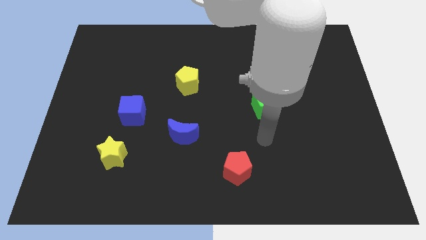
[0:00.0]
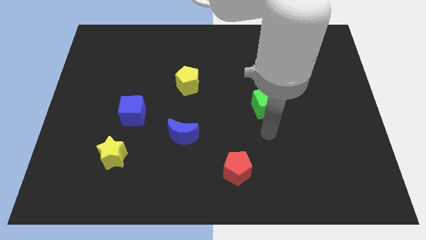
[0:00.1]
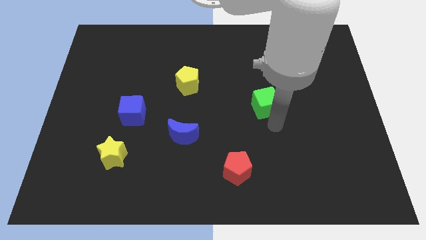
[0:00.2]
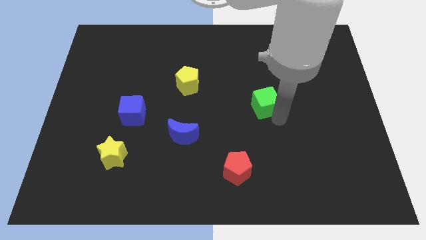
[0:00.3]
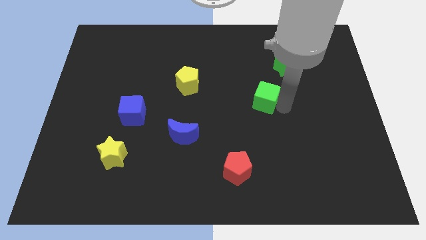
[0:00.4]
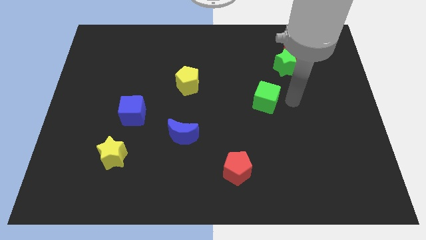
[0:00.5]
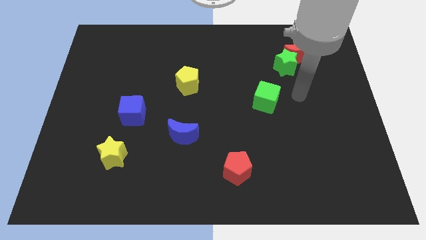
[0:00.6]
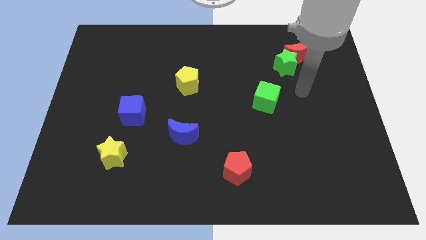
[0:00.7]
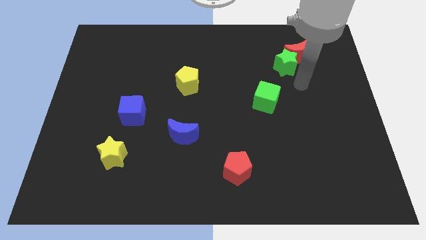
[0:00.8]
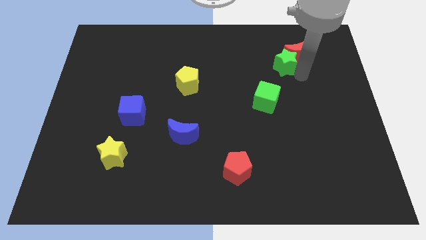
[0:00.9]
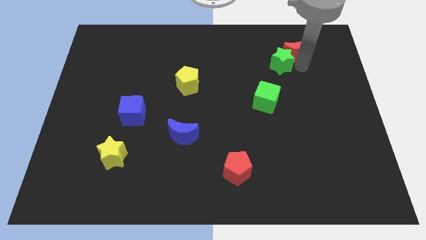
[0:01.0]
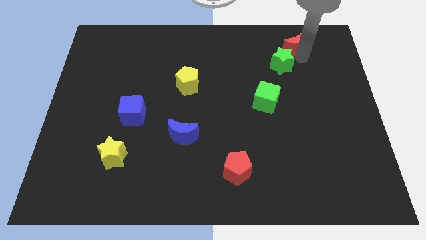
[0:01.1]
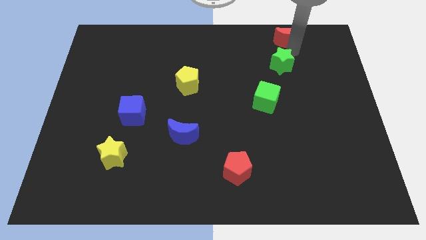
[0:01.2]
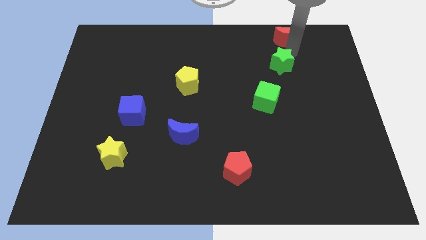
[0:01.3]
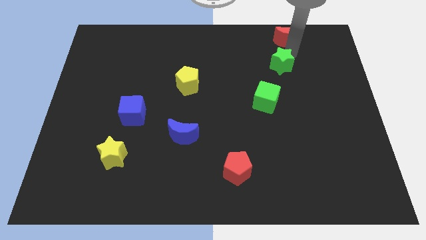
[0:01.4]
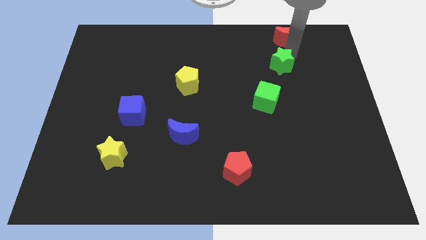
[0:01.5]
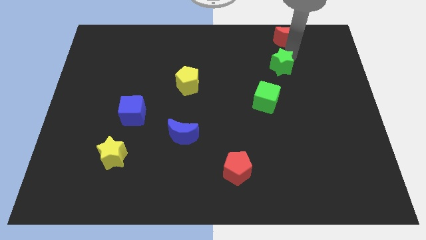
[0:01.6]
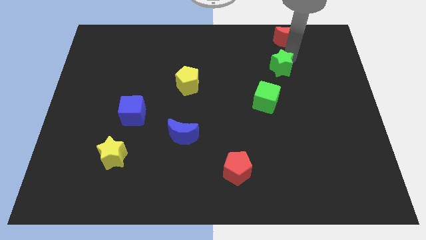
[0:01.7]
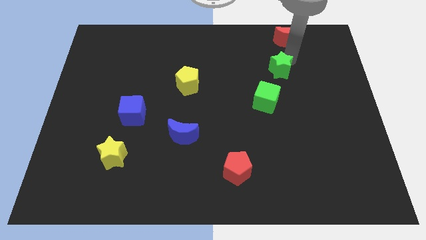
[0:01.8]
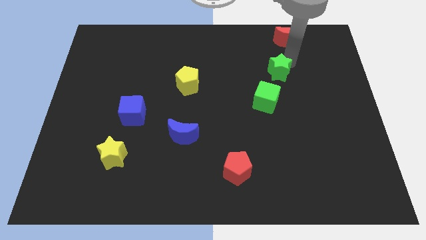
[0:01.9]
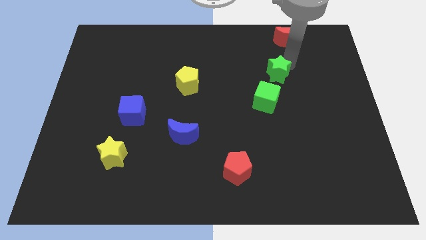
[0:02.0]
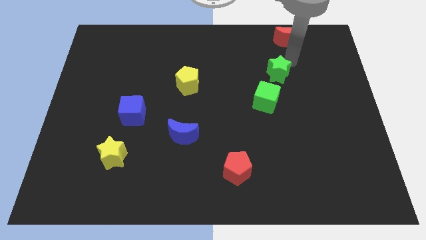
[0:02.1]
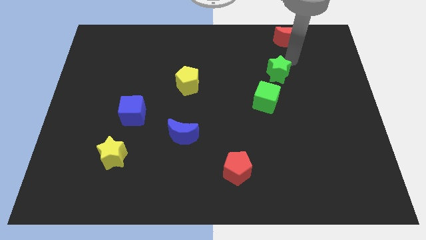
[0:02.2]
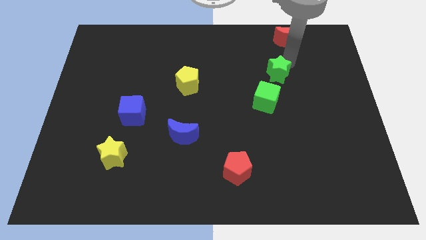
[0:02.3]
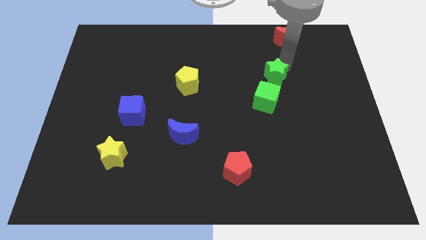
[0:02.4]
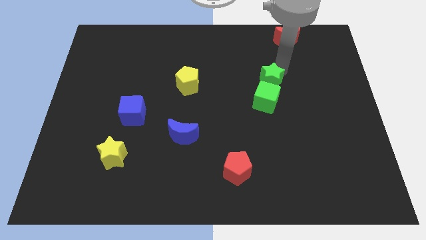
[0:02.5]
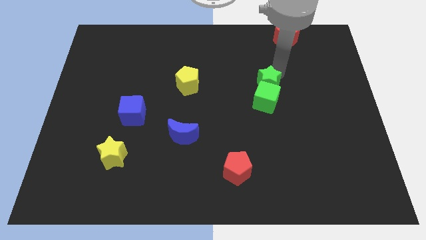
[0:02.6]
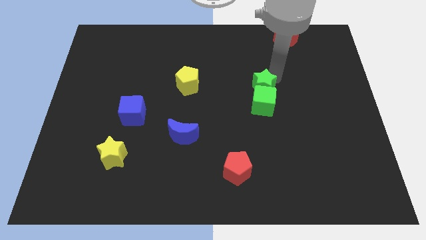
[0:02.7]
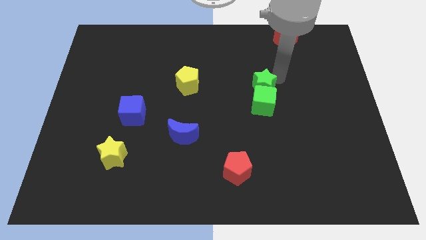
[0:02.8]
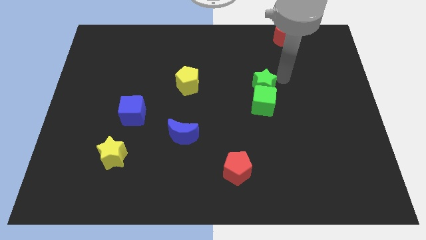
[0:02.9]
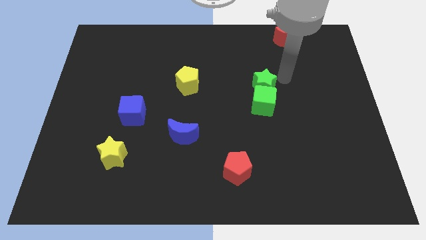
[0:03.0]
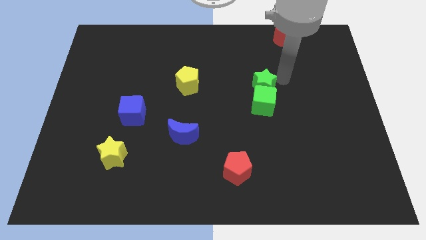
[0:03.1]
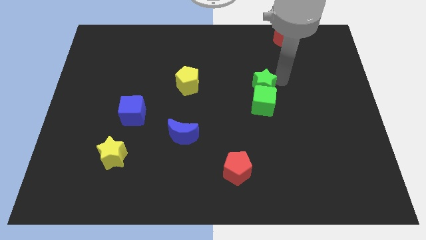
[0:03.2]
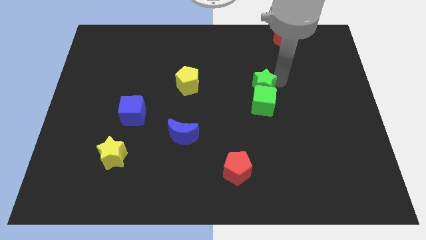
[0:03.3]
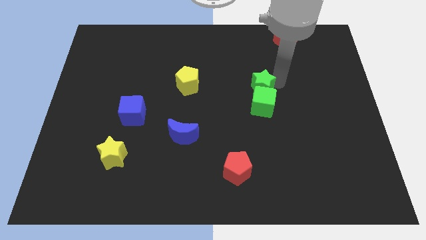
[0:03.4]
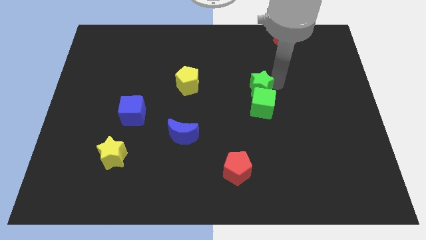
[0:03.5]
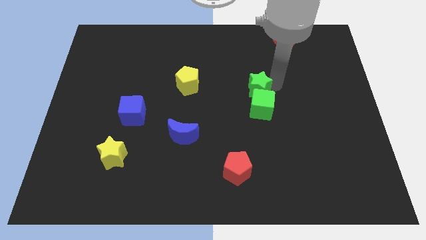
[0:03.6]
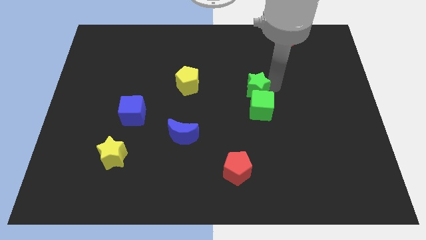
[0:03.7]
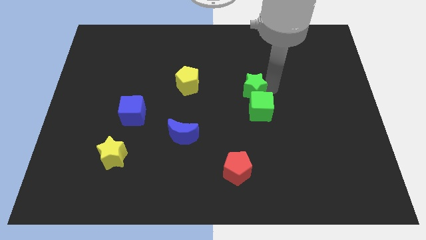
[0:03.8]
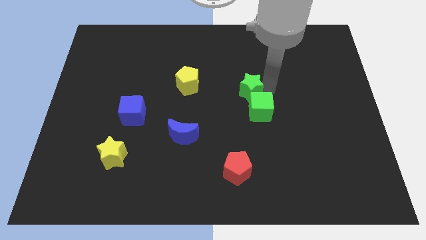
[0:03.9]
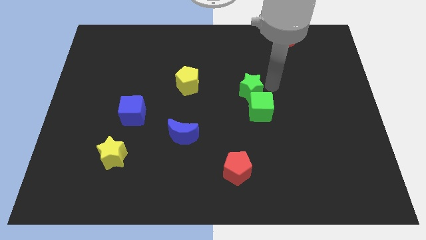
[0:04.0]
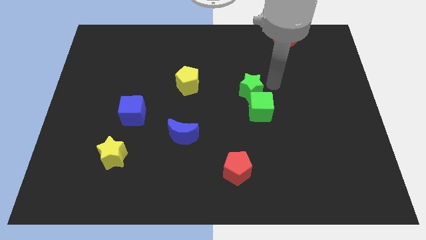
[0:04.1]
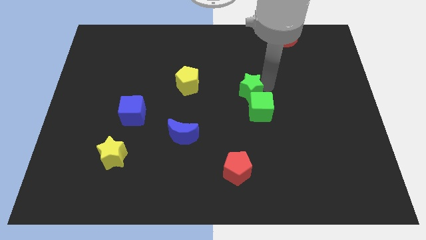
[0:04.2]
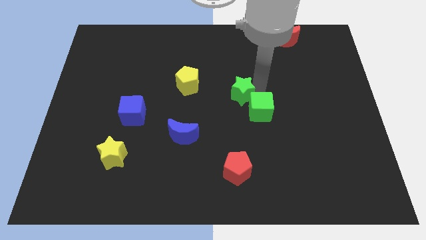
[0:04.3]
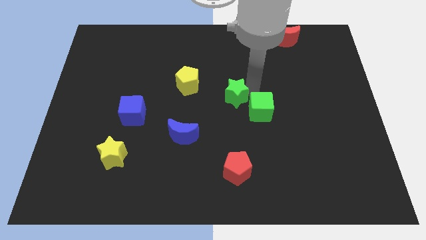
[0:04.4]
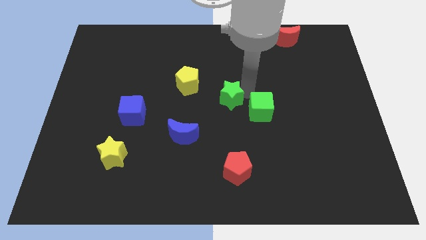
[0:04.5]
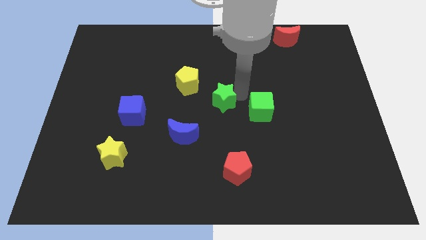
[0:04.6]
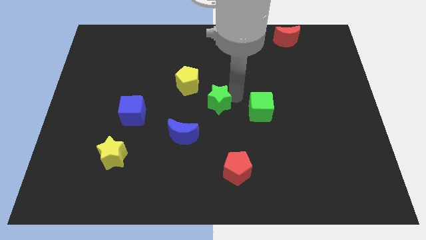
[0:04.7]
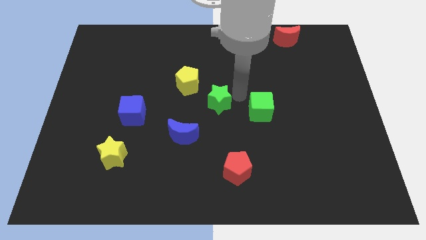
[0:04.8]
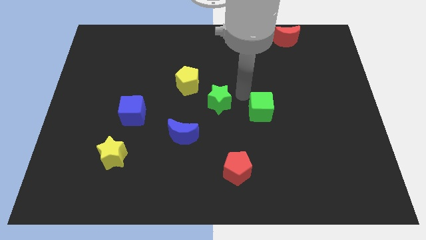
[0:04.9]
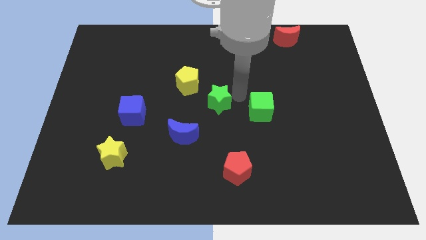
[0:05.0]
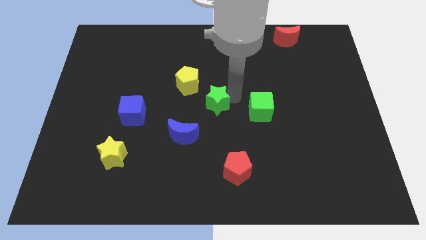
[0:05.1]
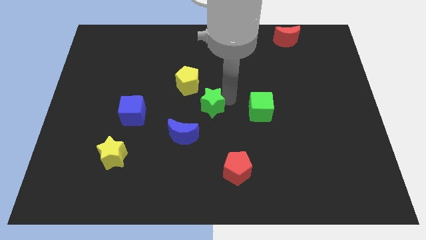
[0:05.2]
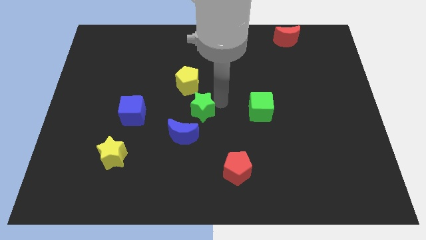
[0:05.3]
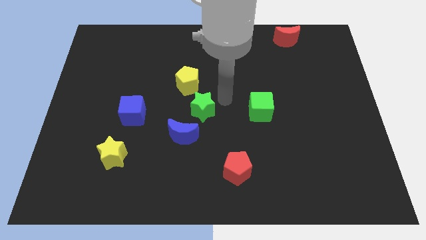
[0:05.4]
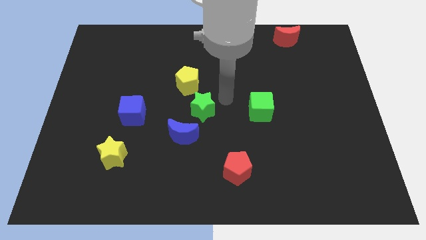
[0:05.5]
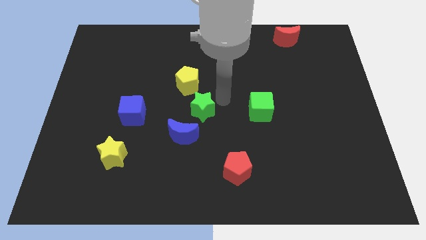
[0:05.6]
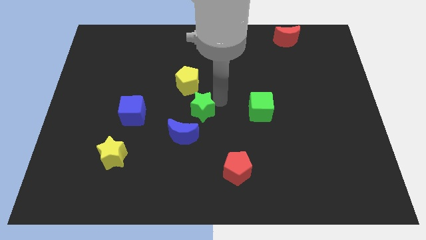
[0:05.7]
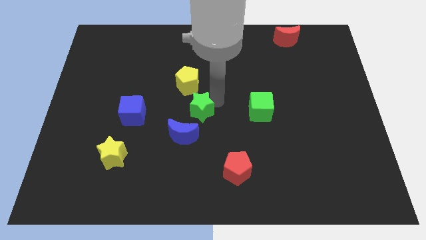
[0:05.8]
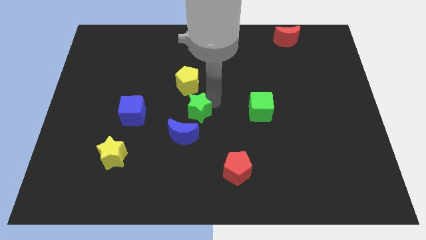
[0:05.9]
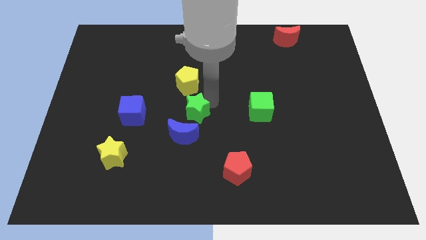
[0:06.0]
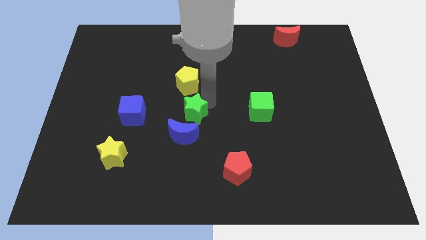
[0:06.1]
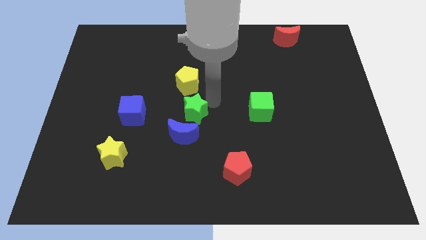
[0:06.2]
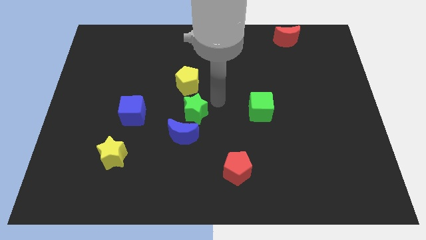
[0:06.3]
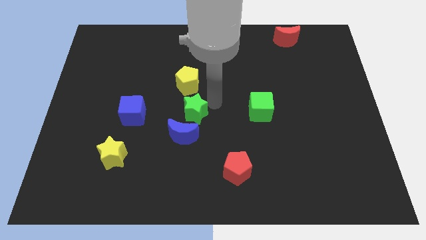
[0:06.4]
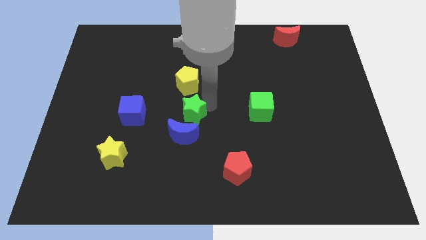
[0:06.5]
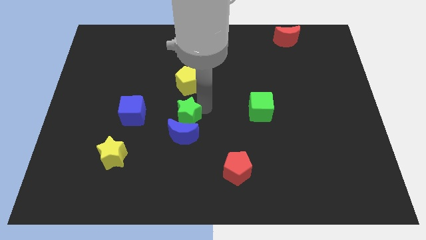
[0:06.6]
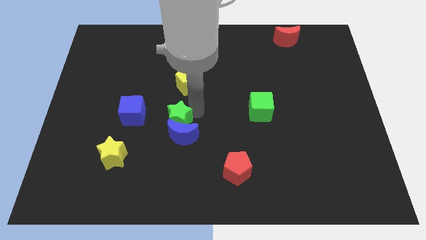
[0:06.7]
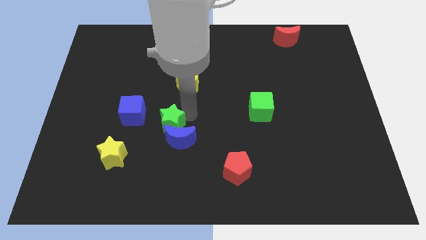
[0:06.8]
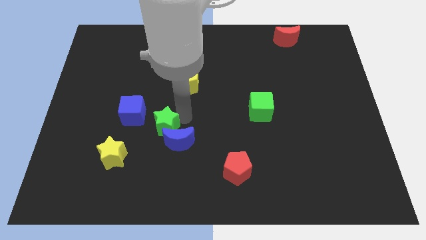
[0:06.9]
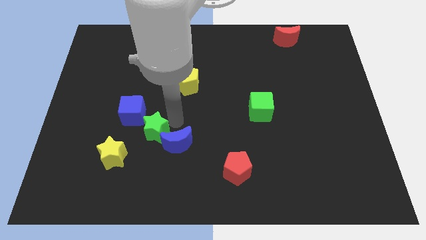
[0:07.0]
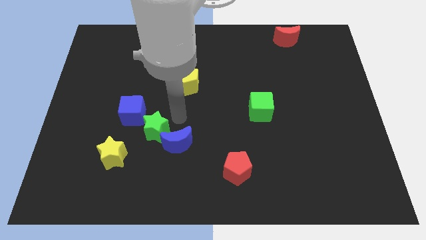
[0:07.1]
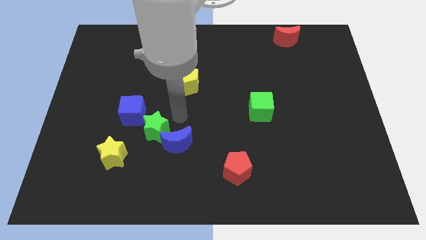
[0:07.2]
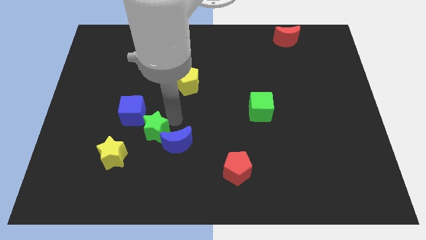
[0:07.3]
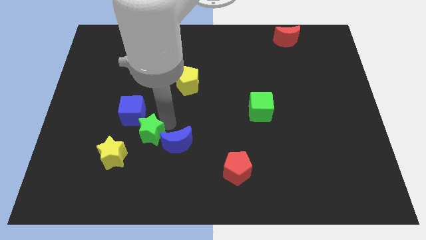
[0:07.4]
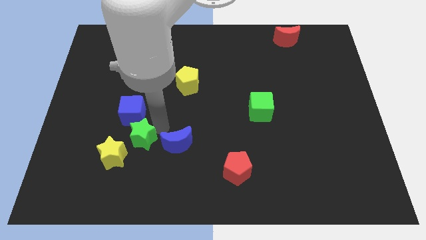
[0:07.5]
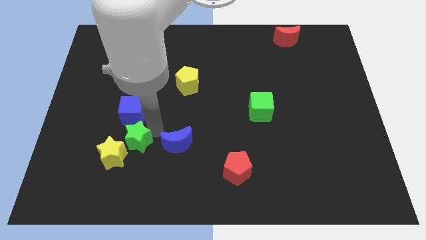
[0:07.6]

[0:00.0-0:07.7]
push the green star towards the yellow star
